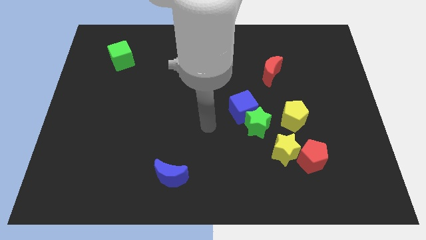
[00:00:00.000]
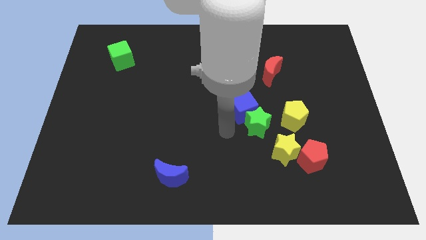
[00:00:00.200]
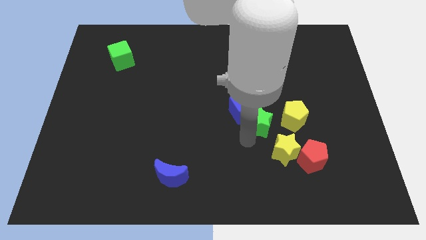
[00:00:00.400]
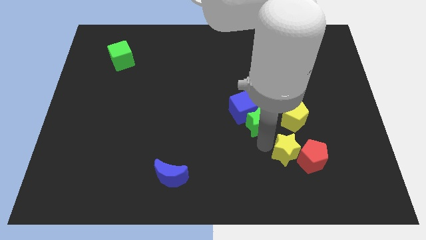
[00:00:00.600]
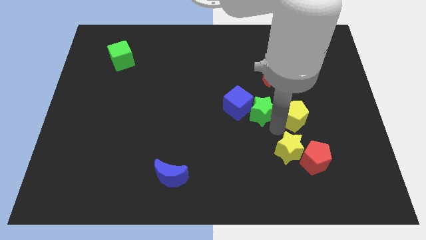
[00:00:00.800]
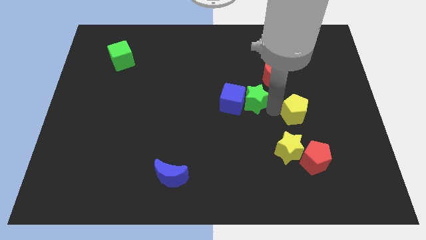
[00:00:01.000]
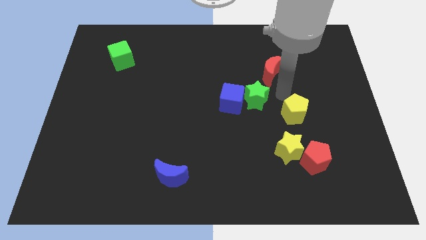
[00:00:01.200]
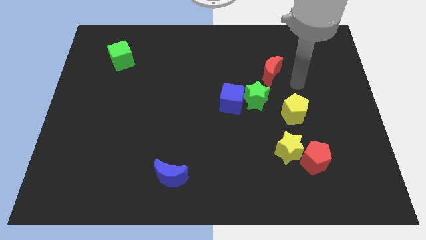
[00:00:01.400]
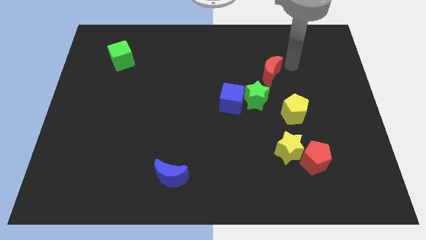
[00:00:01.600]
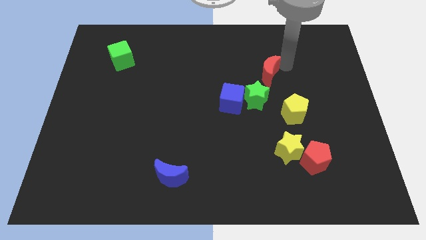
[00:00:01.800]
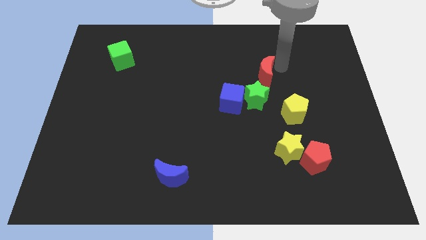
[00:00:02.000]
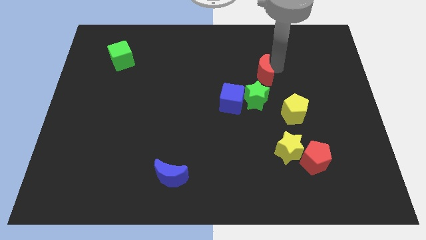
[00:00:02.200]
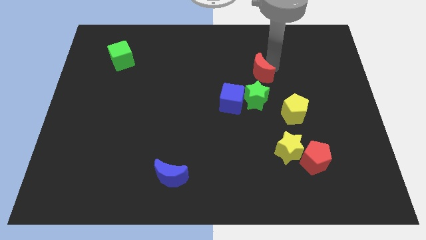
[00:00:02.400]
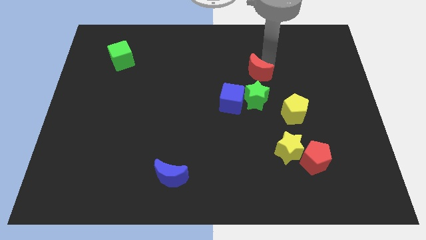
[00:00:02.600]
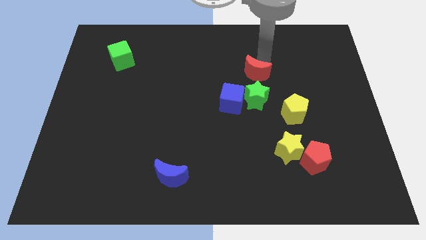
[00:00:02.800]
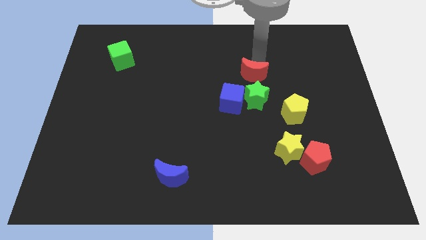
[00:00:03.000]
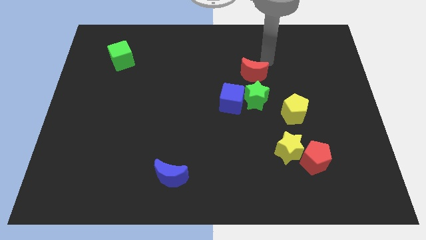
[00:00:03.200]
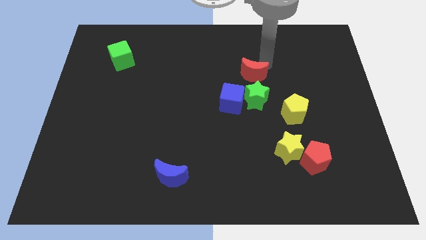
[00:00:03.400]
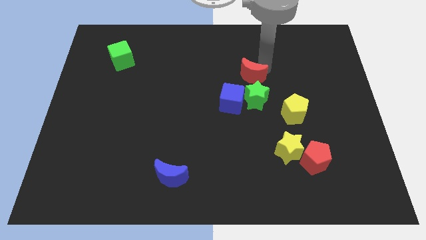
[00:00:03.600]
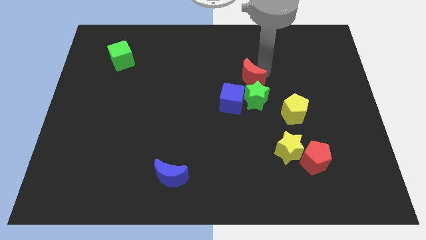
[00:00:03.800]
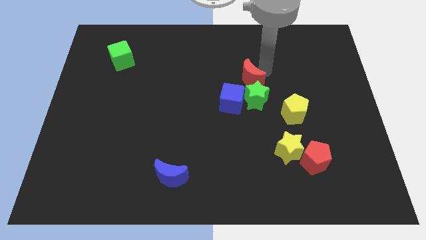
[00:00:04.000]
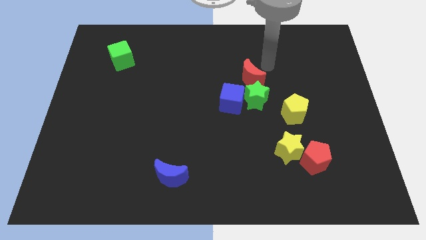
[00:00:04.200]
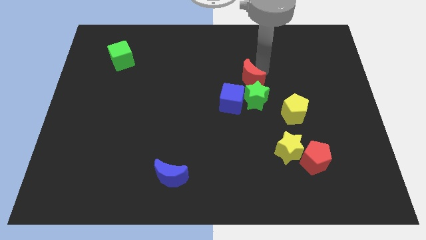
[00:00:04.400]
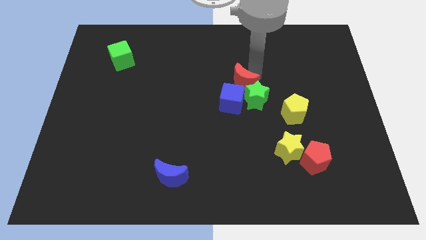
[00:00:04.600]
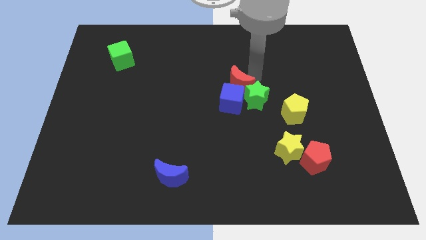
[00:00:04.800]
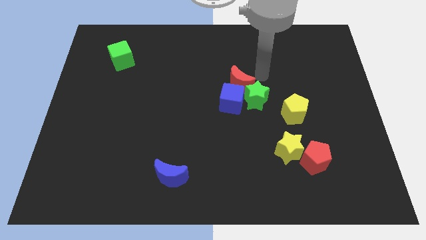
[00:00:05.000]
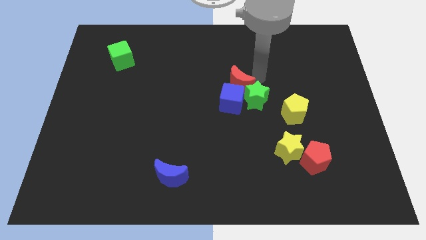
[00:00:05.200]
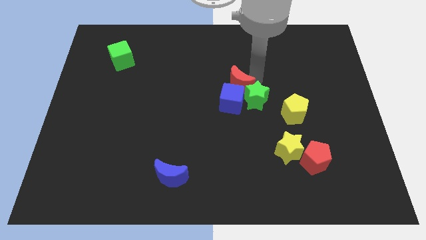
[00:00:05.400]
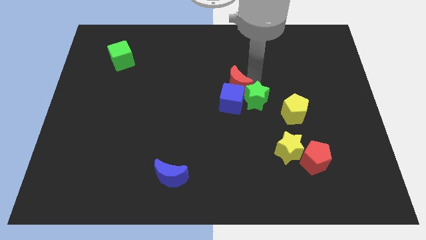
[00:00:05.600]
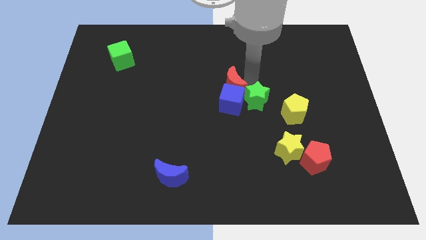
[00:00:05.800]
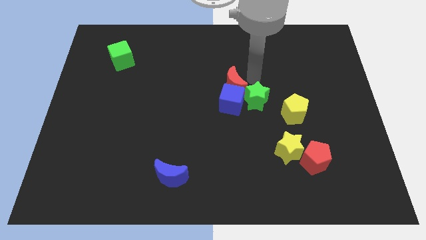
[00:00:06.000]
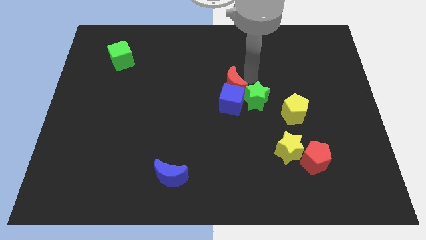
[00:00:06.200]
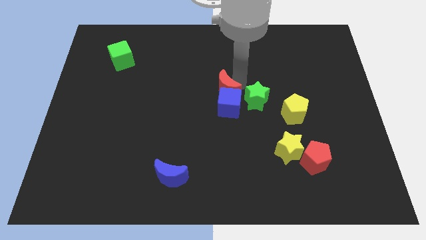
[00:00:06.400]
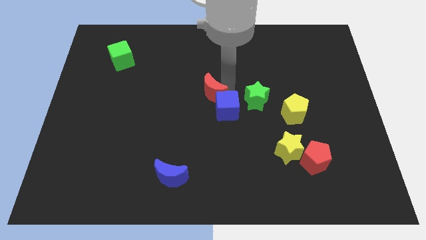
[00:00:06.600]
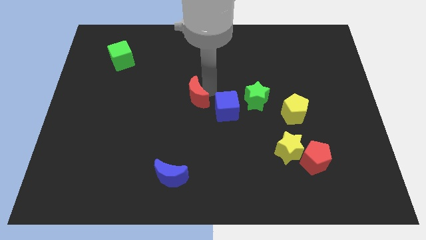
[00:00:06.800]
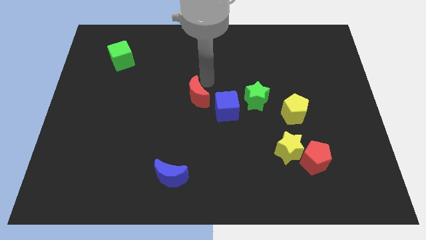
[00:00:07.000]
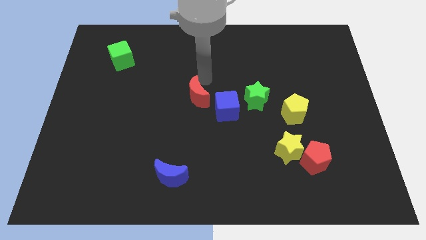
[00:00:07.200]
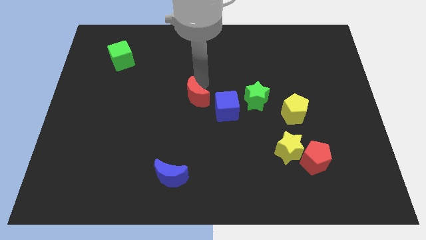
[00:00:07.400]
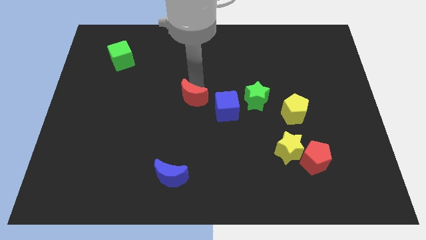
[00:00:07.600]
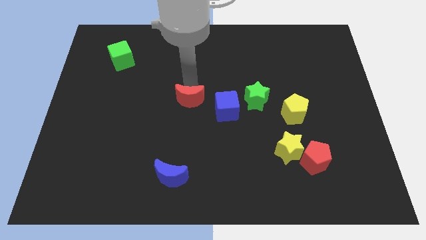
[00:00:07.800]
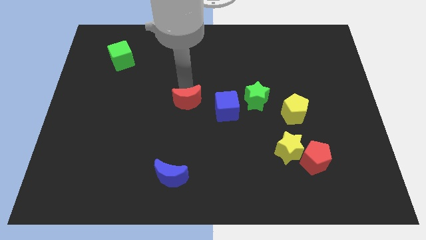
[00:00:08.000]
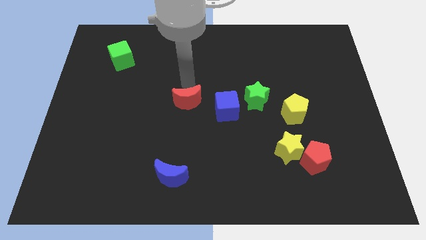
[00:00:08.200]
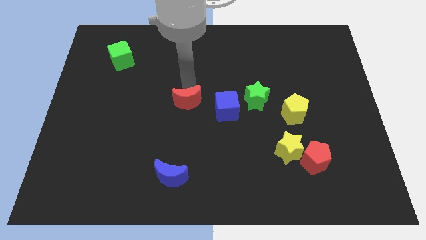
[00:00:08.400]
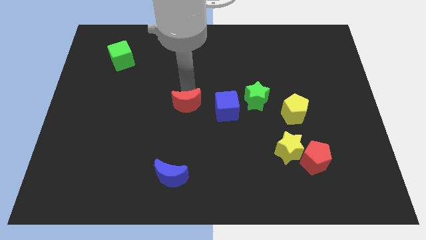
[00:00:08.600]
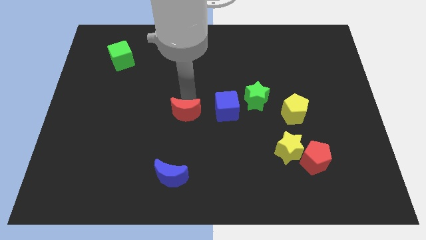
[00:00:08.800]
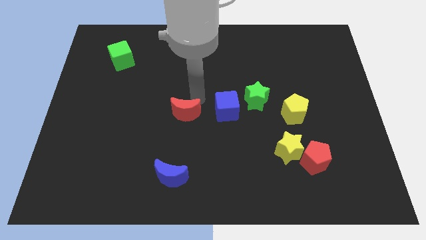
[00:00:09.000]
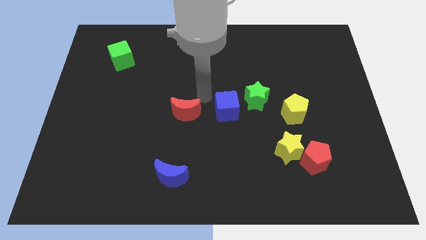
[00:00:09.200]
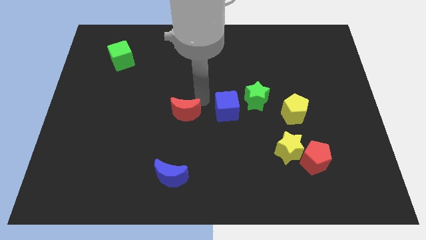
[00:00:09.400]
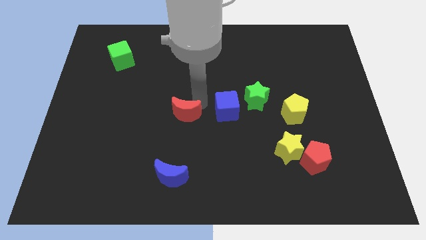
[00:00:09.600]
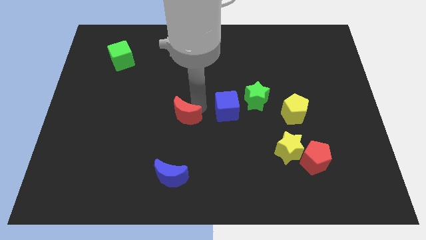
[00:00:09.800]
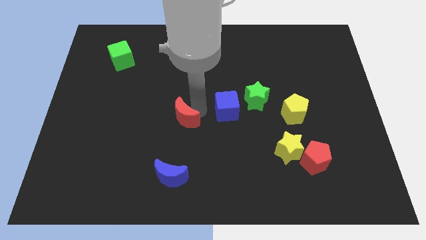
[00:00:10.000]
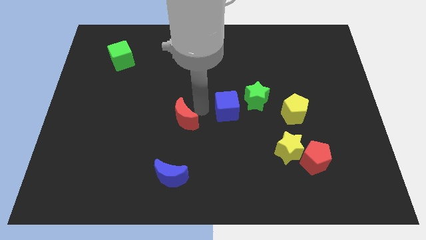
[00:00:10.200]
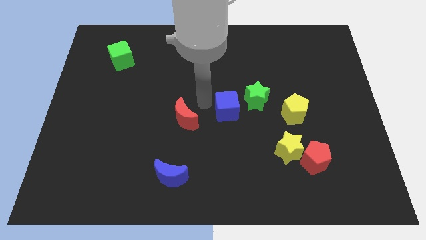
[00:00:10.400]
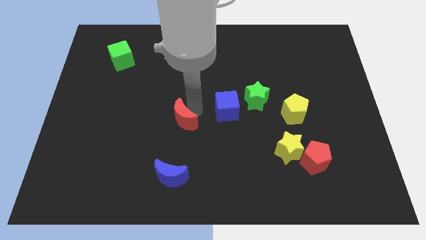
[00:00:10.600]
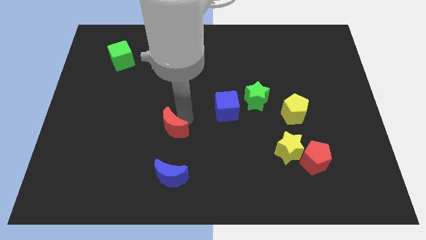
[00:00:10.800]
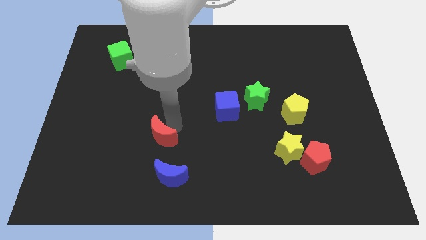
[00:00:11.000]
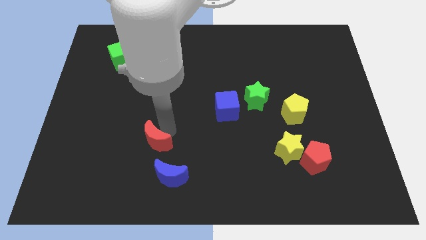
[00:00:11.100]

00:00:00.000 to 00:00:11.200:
slide the red moon to the top left side of the blue moon
